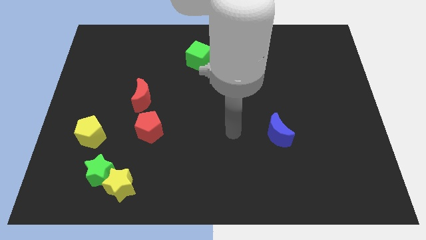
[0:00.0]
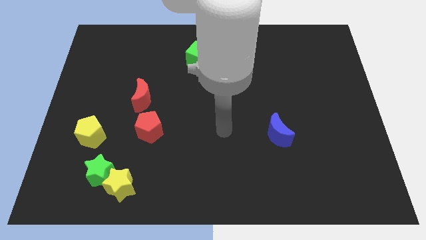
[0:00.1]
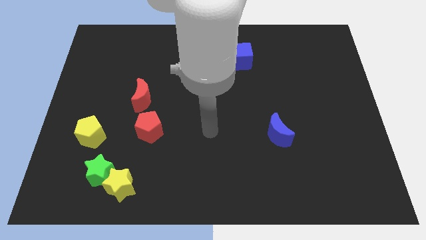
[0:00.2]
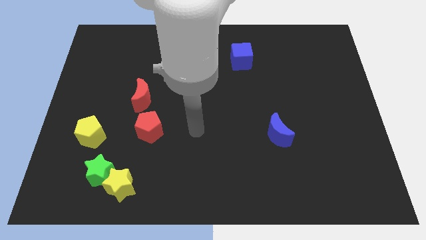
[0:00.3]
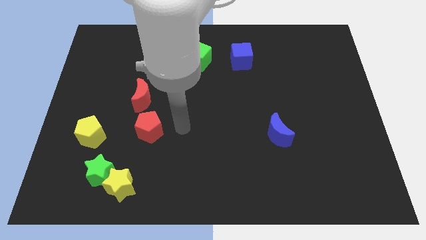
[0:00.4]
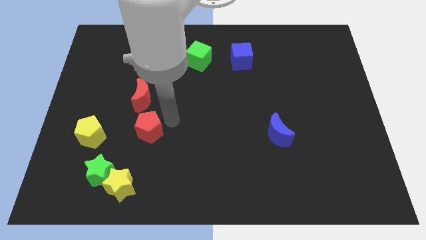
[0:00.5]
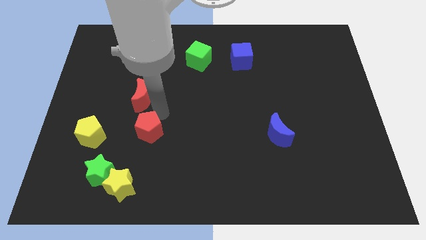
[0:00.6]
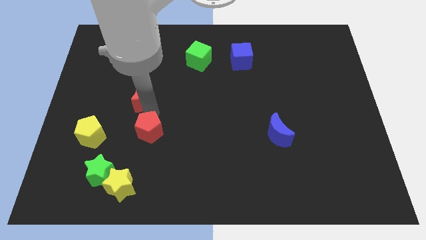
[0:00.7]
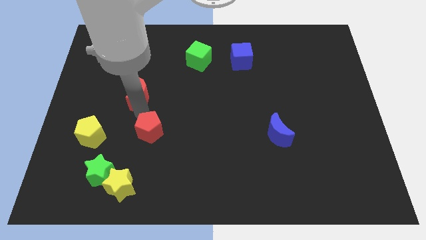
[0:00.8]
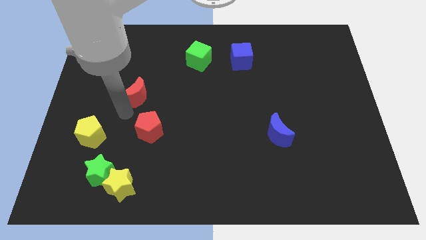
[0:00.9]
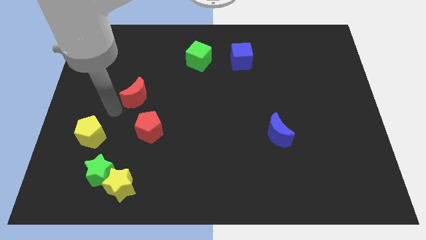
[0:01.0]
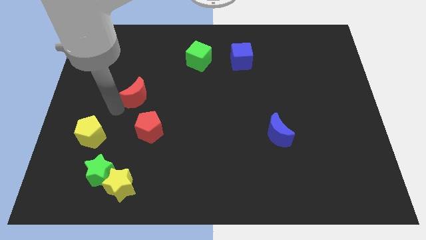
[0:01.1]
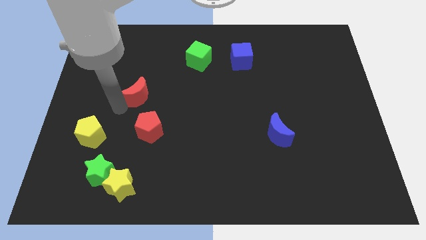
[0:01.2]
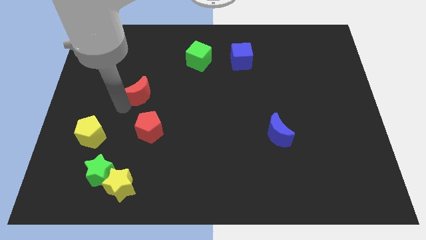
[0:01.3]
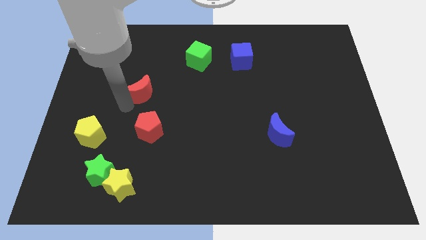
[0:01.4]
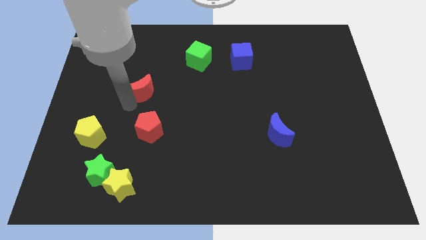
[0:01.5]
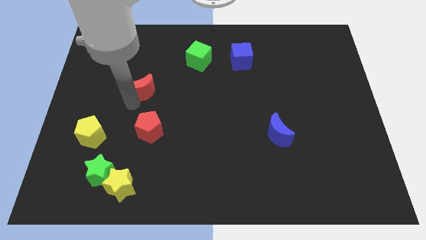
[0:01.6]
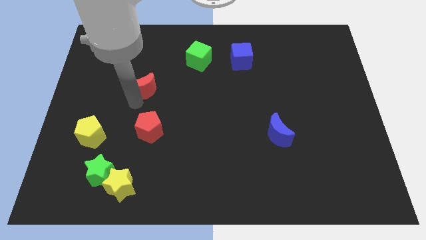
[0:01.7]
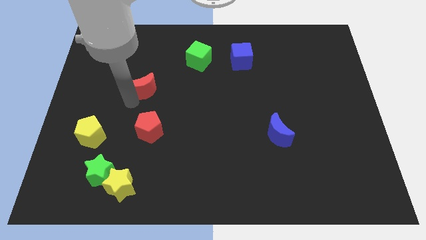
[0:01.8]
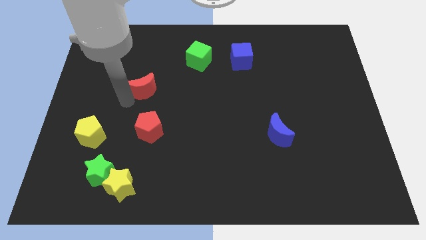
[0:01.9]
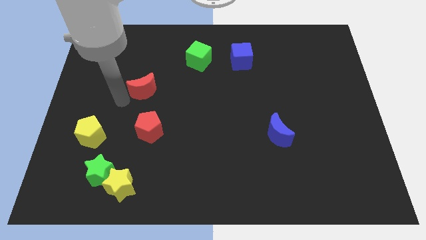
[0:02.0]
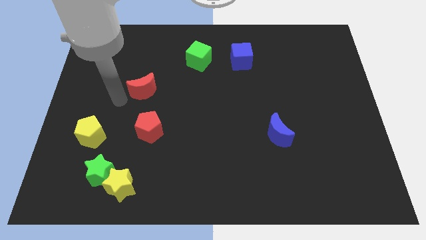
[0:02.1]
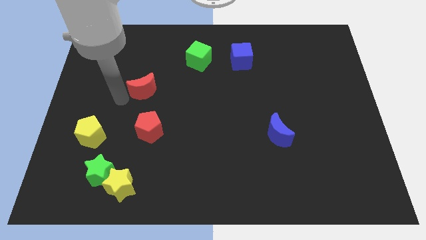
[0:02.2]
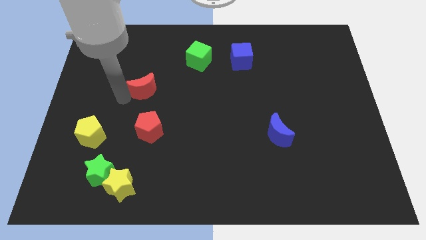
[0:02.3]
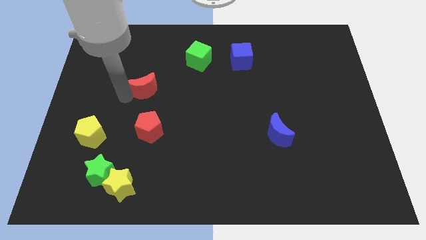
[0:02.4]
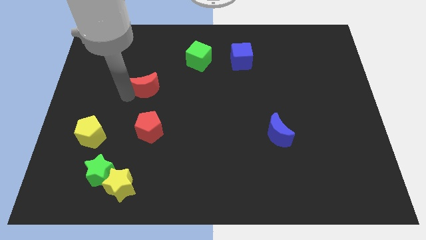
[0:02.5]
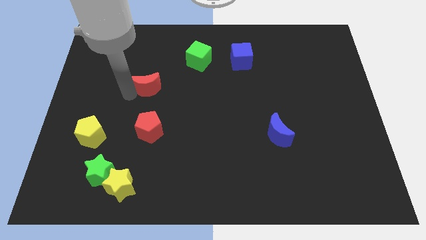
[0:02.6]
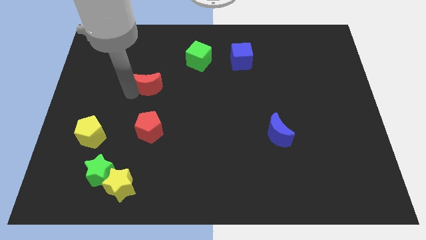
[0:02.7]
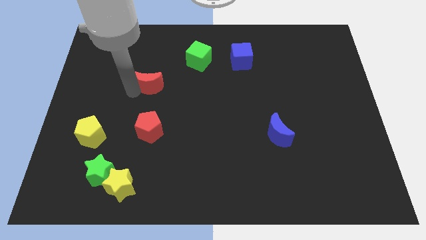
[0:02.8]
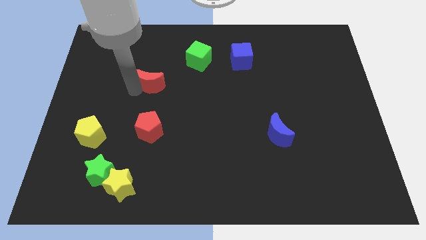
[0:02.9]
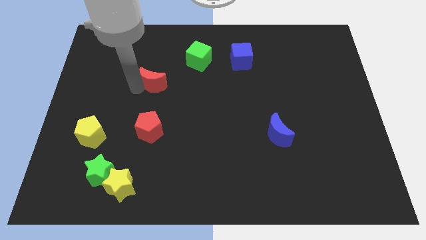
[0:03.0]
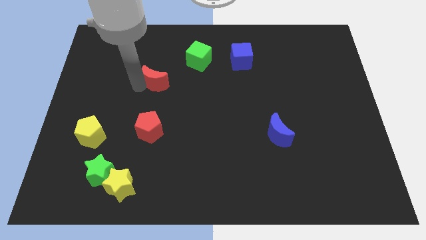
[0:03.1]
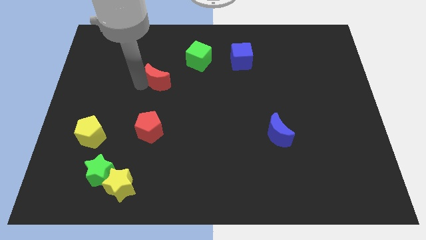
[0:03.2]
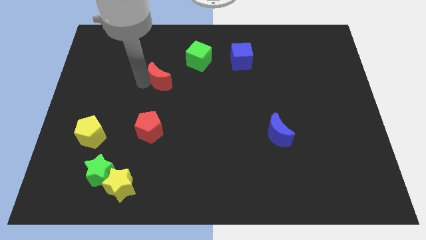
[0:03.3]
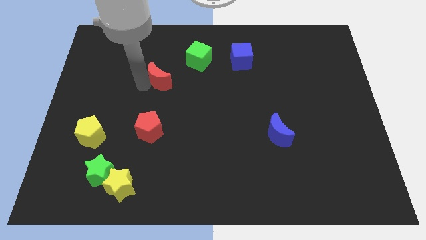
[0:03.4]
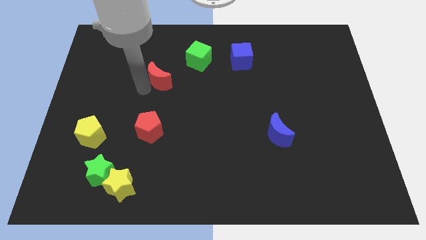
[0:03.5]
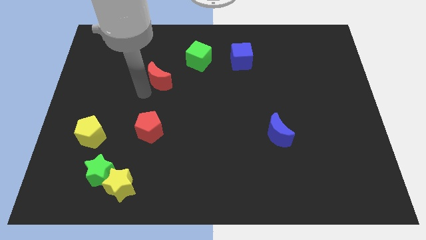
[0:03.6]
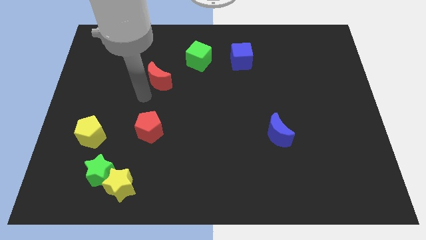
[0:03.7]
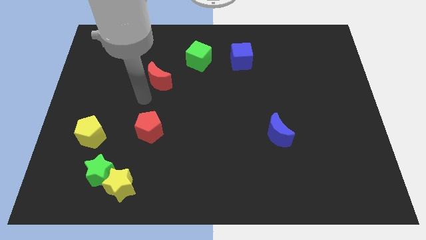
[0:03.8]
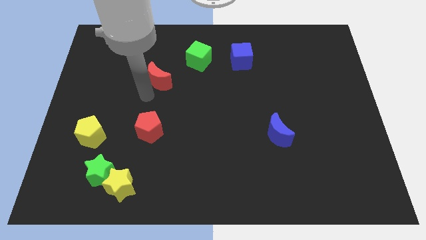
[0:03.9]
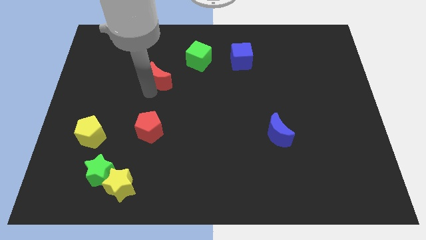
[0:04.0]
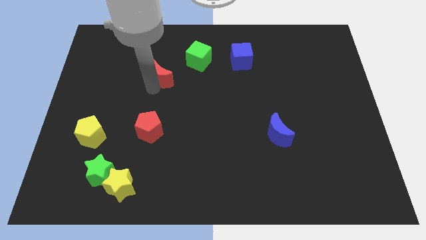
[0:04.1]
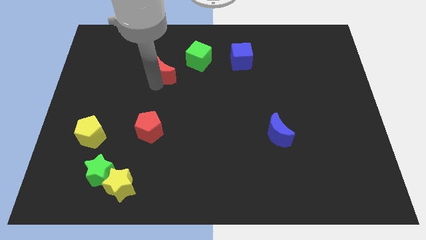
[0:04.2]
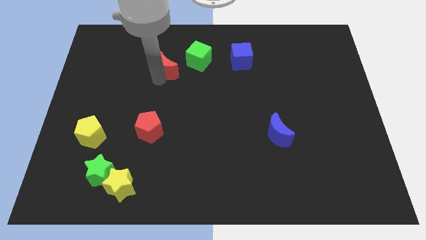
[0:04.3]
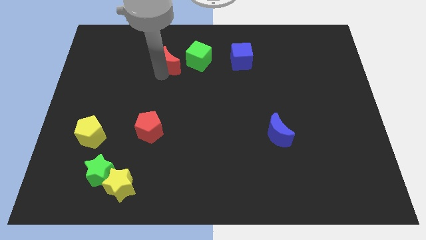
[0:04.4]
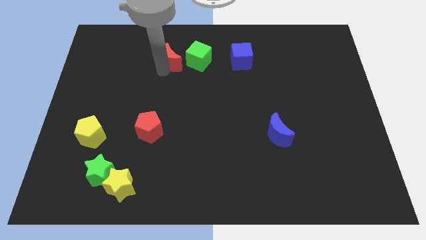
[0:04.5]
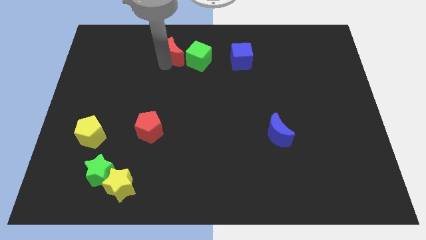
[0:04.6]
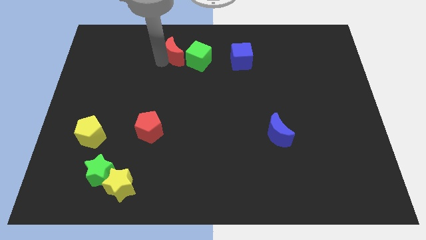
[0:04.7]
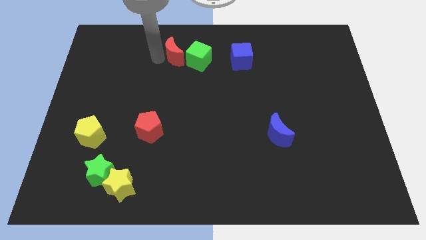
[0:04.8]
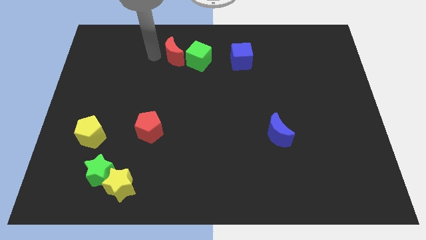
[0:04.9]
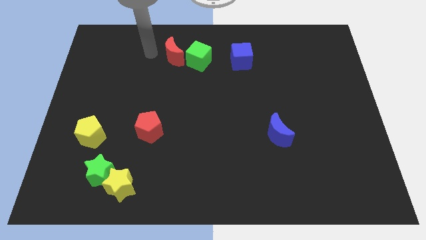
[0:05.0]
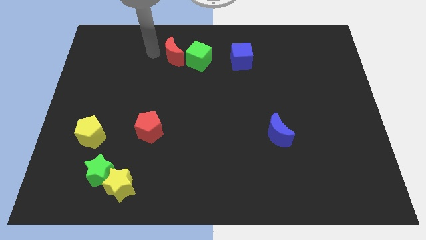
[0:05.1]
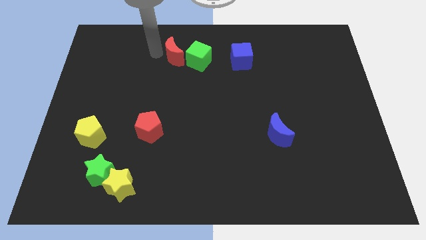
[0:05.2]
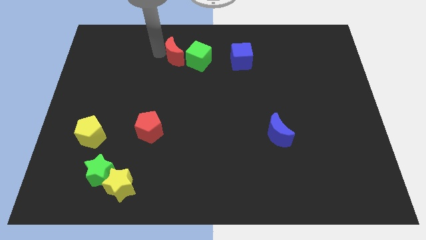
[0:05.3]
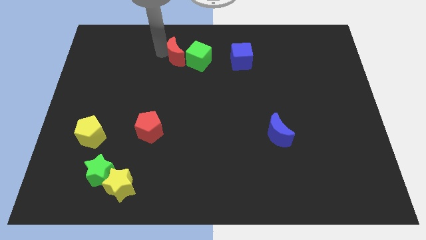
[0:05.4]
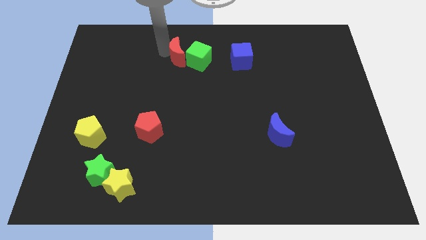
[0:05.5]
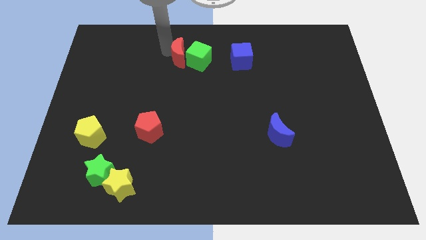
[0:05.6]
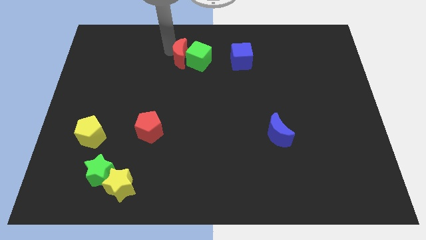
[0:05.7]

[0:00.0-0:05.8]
push the red moon to the left of the blue cube

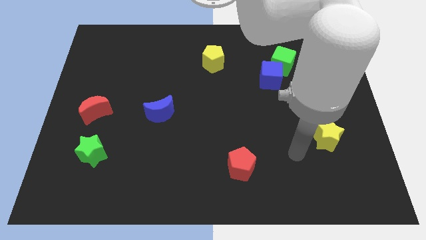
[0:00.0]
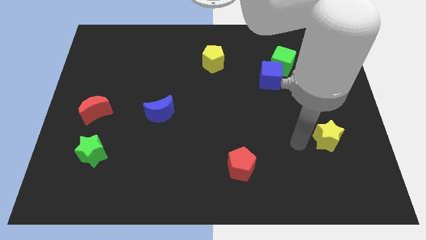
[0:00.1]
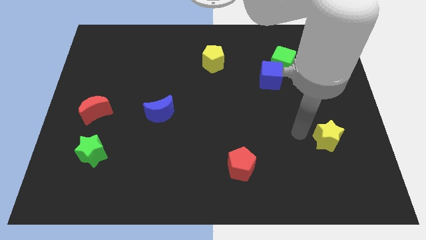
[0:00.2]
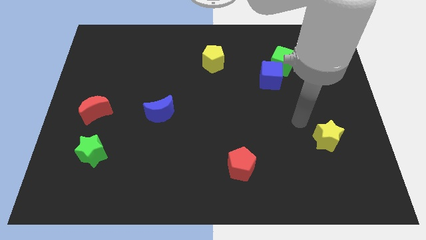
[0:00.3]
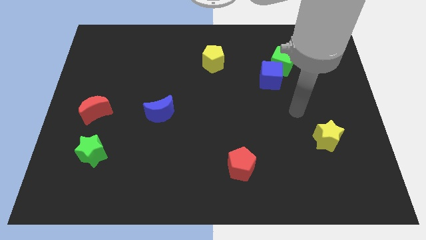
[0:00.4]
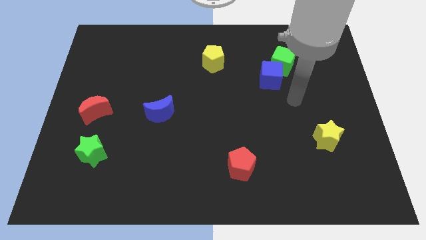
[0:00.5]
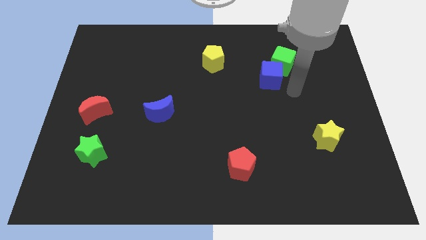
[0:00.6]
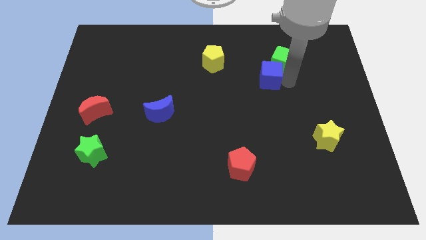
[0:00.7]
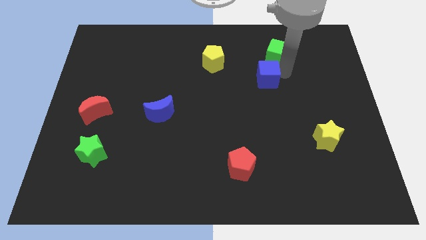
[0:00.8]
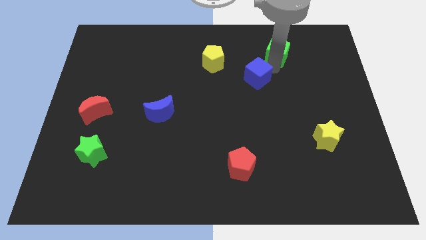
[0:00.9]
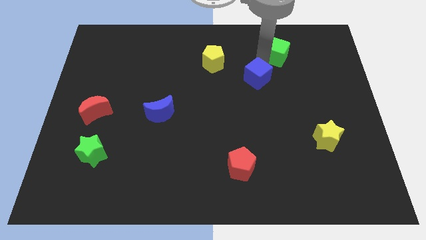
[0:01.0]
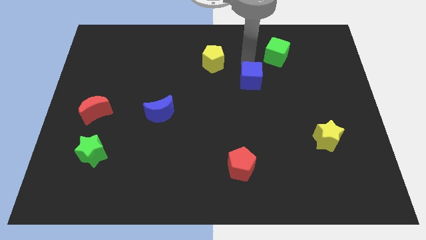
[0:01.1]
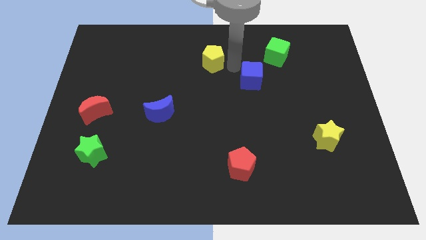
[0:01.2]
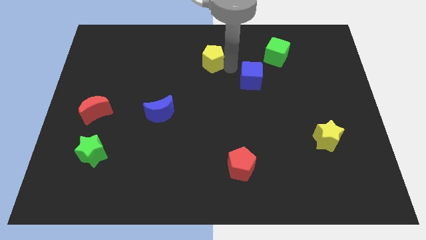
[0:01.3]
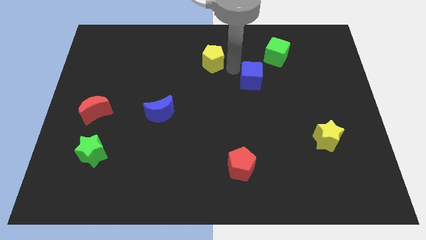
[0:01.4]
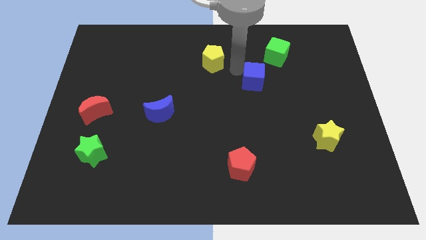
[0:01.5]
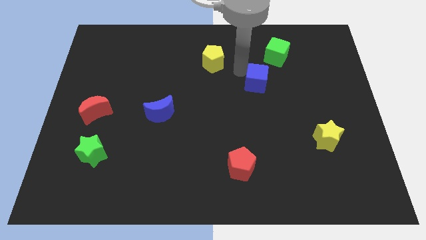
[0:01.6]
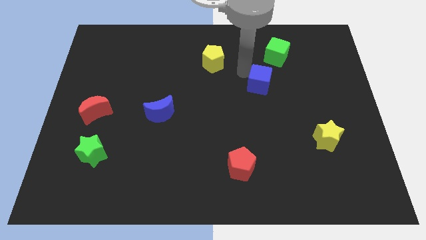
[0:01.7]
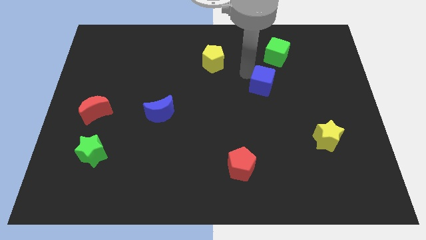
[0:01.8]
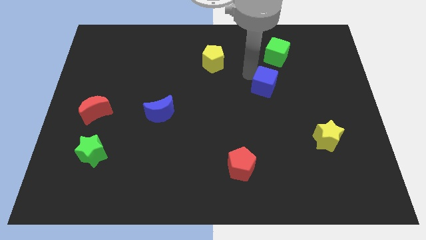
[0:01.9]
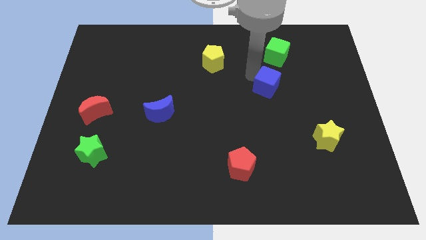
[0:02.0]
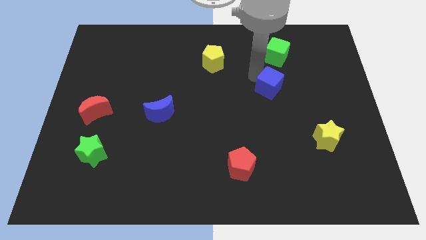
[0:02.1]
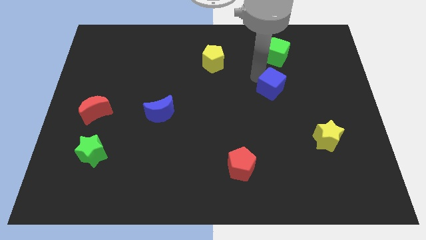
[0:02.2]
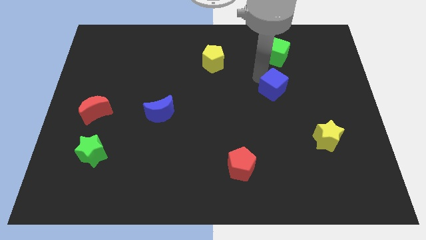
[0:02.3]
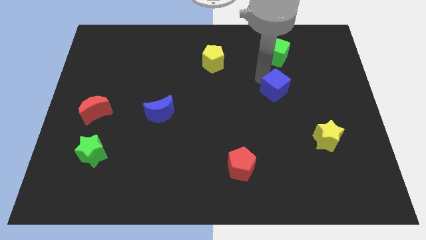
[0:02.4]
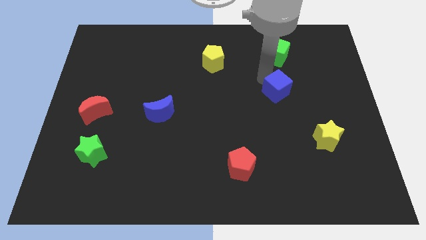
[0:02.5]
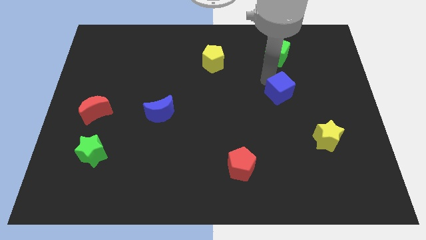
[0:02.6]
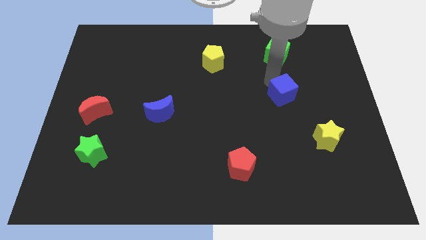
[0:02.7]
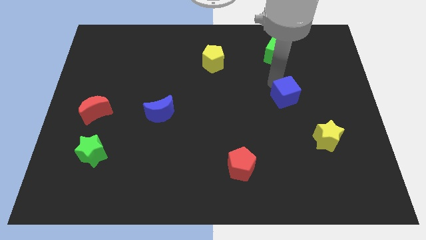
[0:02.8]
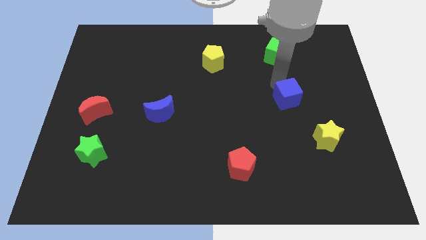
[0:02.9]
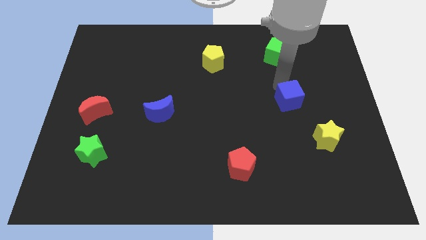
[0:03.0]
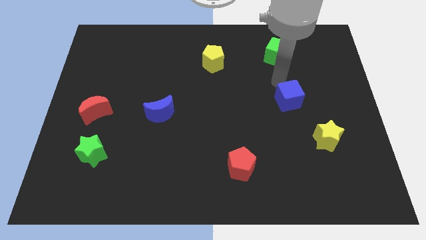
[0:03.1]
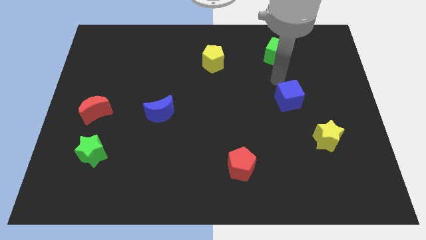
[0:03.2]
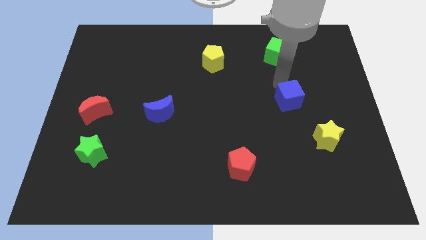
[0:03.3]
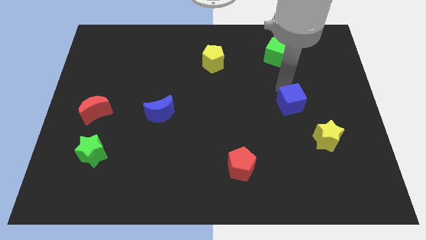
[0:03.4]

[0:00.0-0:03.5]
put the blue cube diagonally up and to the left of the yellow star
